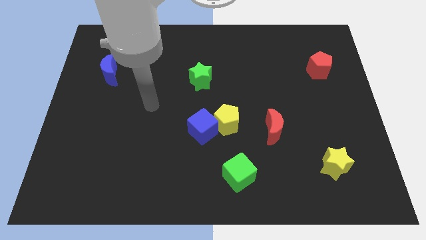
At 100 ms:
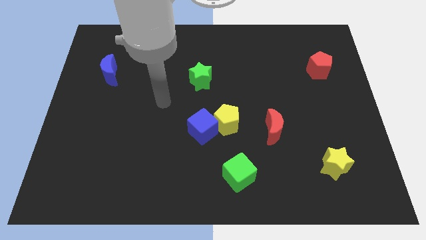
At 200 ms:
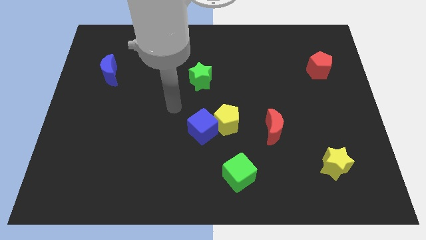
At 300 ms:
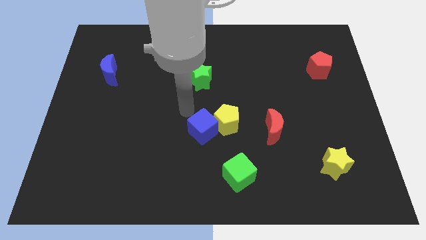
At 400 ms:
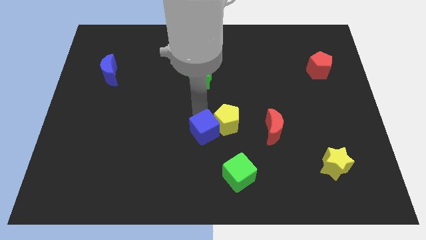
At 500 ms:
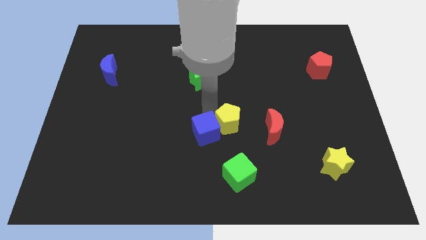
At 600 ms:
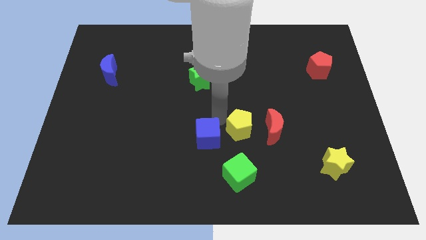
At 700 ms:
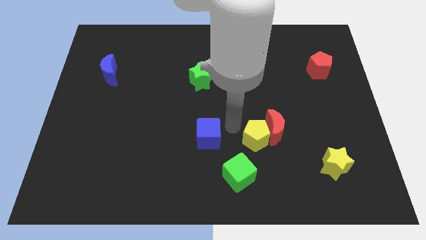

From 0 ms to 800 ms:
pull the blue cube apart from the yellow pentagon

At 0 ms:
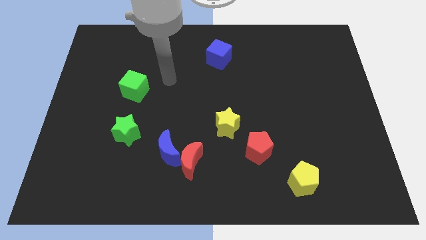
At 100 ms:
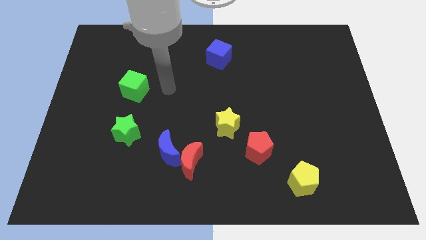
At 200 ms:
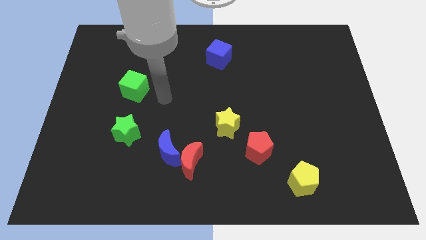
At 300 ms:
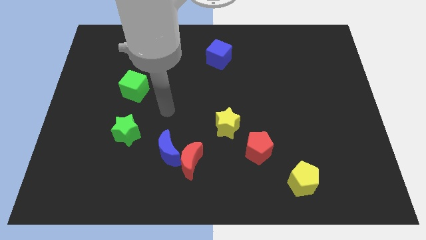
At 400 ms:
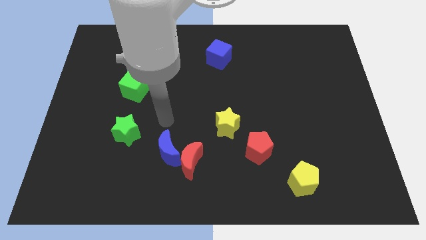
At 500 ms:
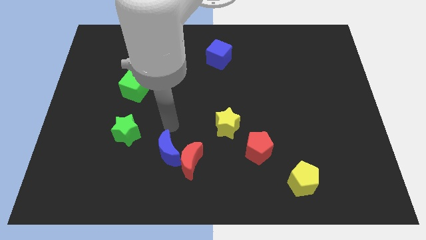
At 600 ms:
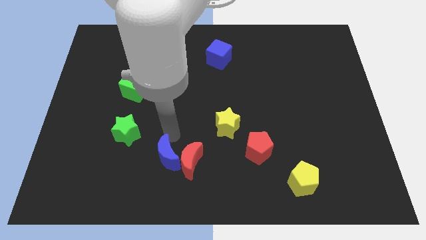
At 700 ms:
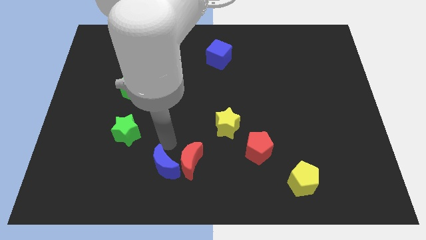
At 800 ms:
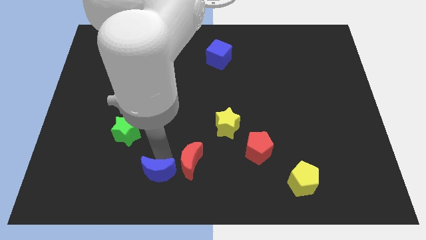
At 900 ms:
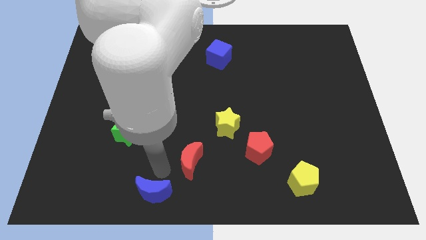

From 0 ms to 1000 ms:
pull the red moon apart from the blue moon

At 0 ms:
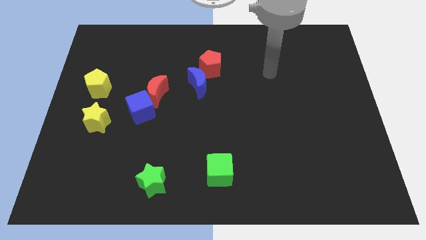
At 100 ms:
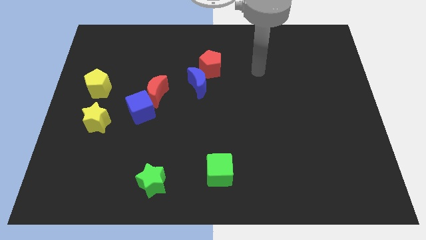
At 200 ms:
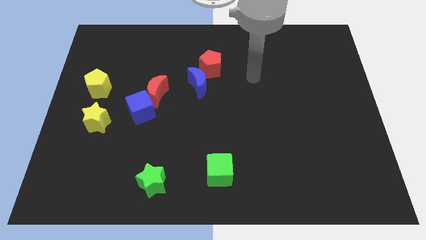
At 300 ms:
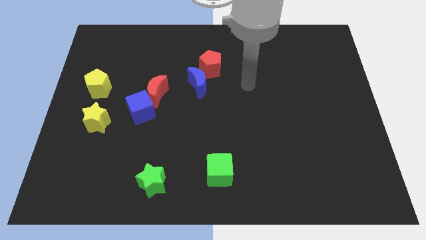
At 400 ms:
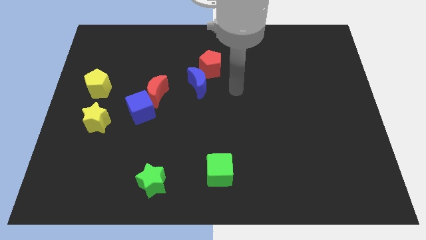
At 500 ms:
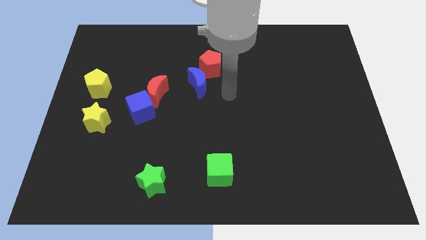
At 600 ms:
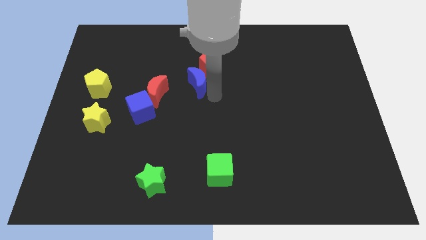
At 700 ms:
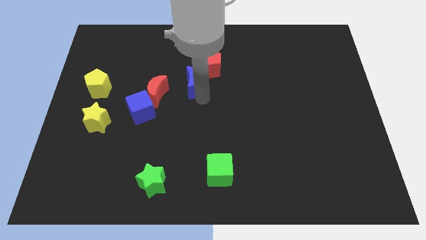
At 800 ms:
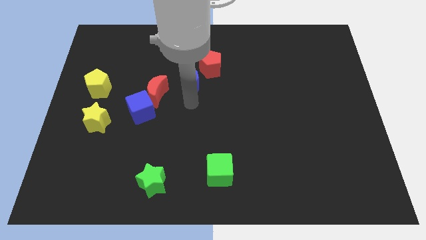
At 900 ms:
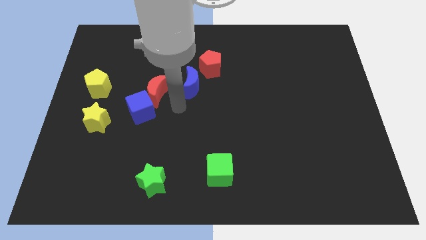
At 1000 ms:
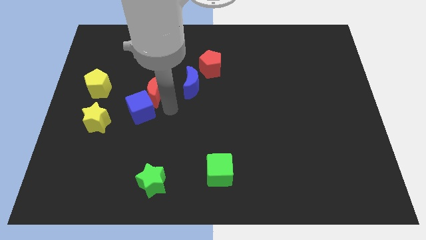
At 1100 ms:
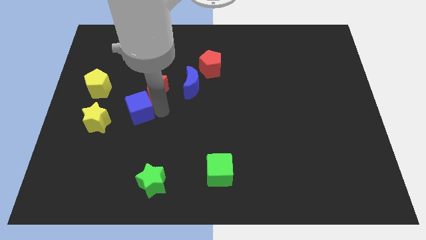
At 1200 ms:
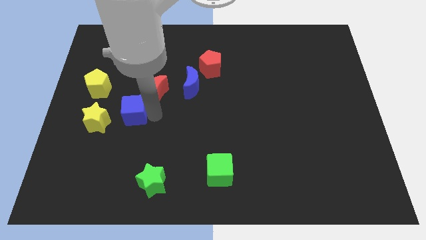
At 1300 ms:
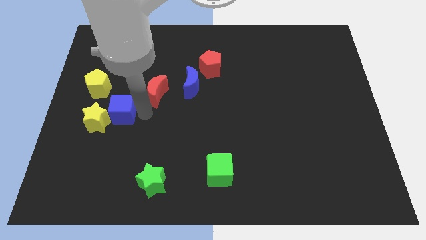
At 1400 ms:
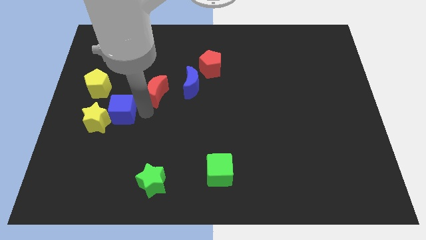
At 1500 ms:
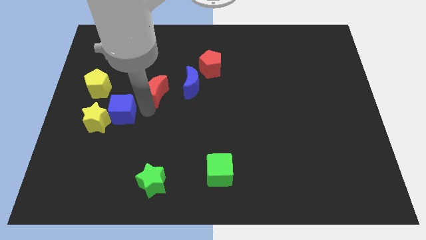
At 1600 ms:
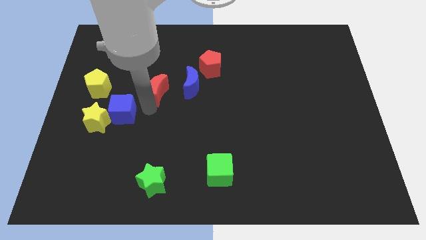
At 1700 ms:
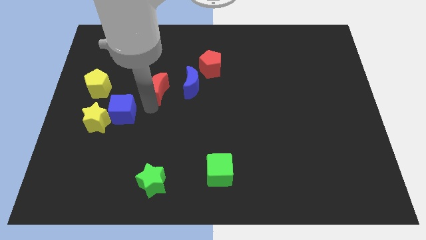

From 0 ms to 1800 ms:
separate the red moon from the blue cube

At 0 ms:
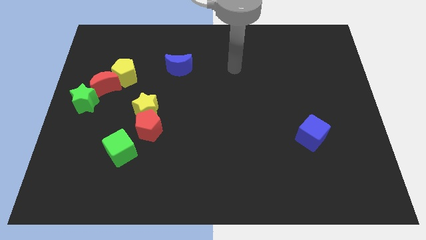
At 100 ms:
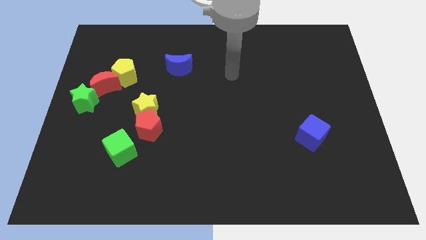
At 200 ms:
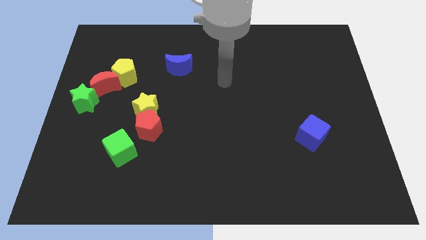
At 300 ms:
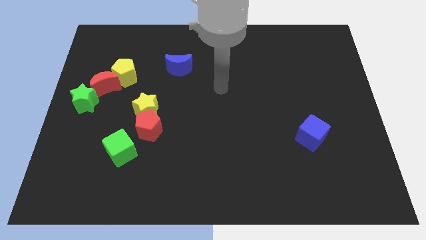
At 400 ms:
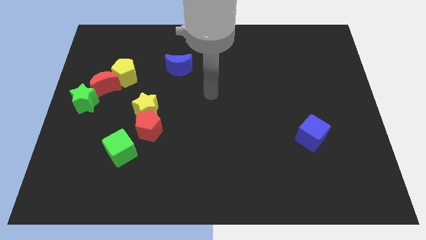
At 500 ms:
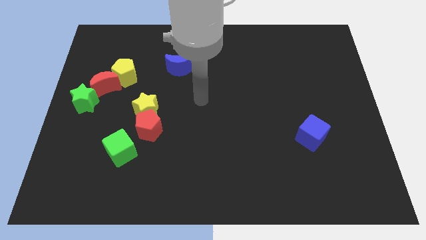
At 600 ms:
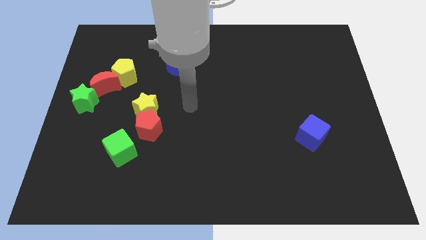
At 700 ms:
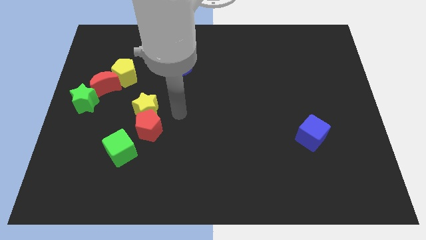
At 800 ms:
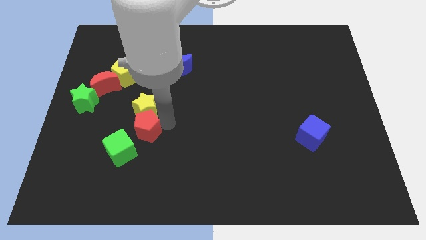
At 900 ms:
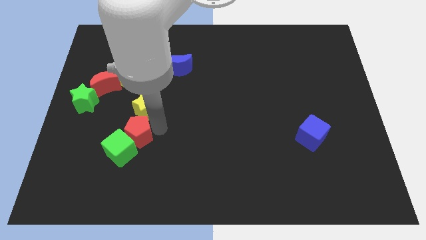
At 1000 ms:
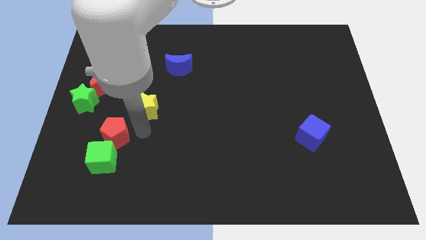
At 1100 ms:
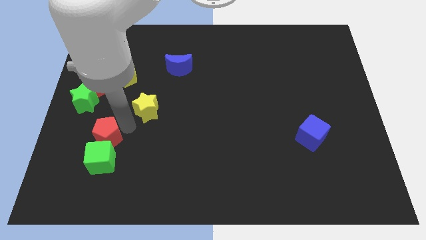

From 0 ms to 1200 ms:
move the yellow star away from the red pentagon

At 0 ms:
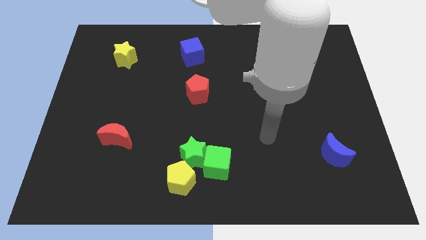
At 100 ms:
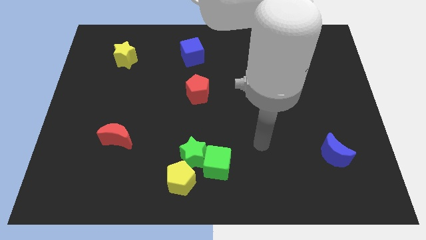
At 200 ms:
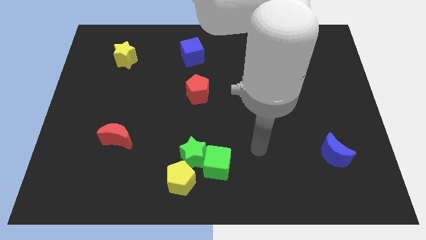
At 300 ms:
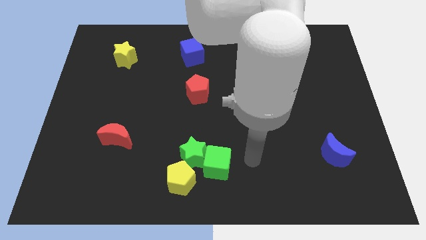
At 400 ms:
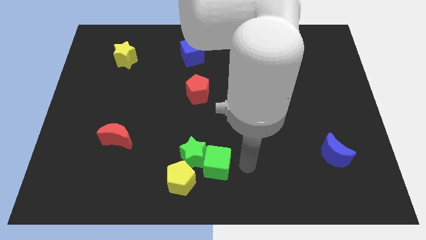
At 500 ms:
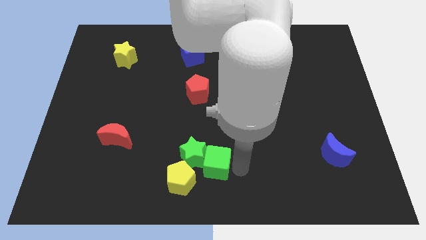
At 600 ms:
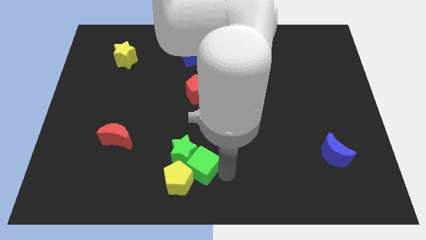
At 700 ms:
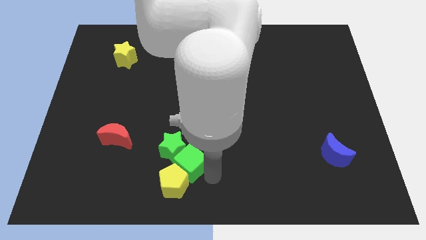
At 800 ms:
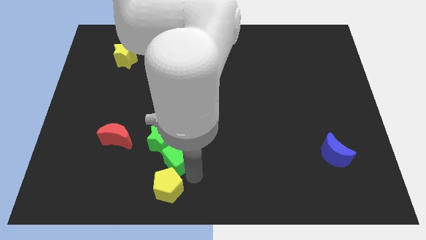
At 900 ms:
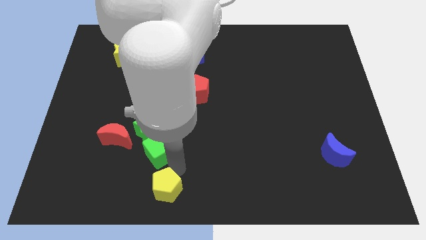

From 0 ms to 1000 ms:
separate the green star from the green cube and yellow pentagon

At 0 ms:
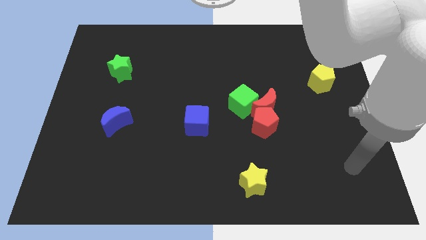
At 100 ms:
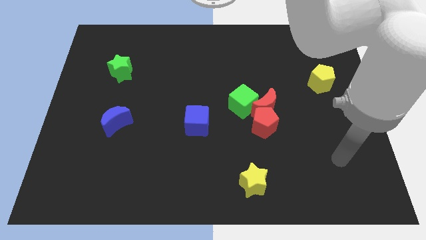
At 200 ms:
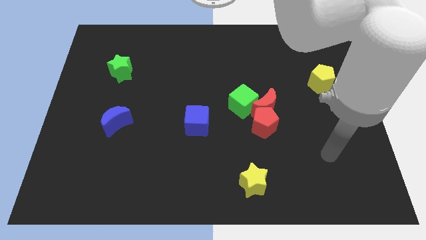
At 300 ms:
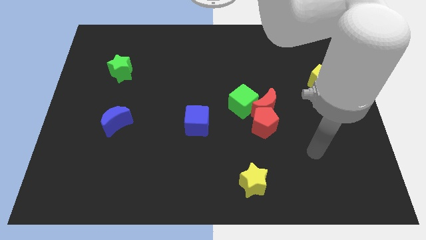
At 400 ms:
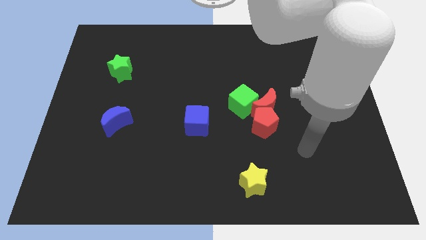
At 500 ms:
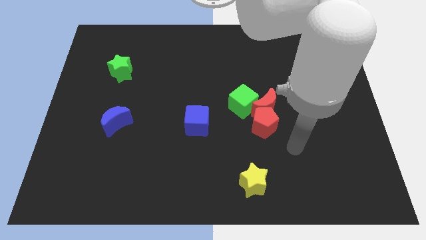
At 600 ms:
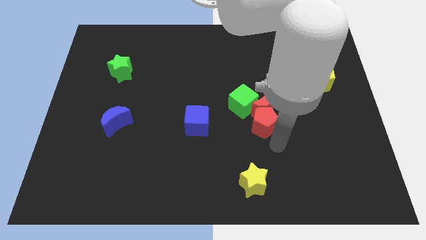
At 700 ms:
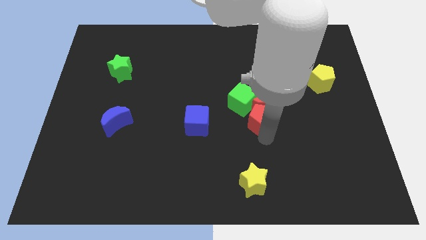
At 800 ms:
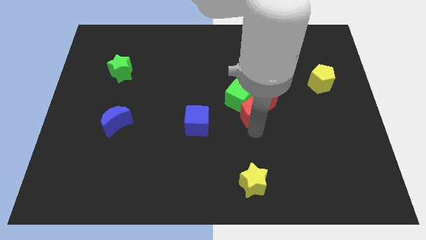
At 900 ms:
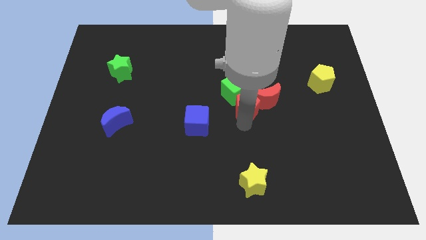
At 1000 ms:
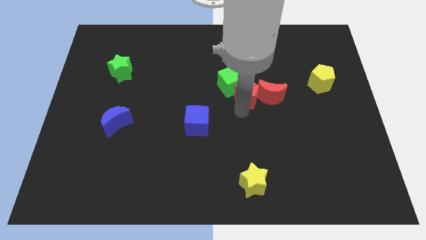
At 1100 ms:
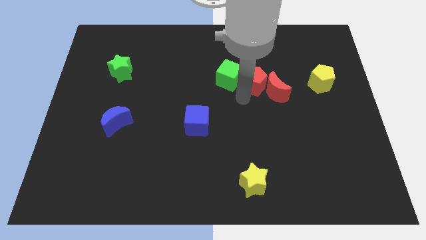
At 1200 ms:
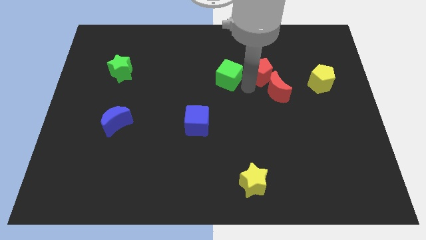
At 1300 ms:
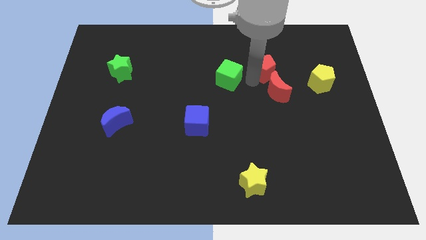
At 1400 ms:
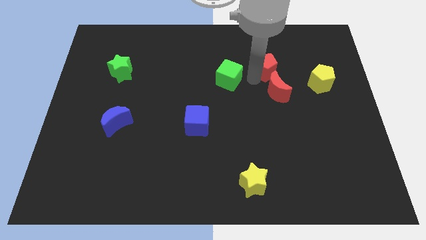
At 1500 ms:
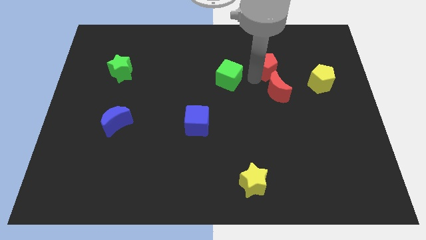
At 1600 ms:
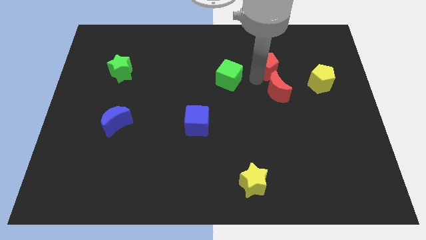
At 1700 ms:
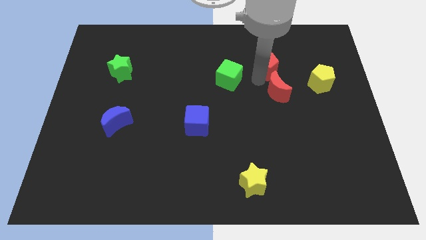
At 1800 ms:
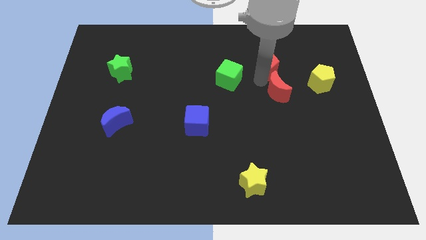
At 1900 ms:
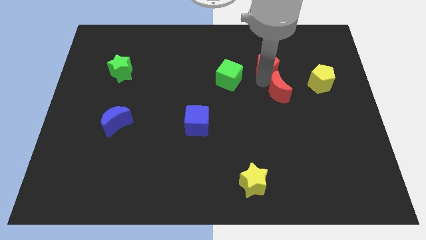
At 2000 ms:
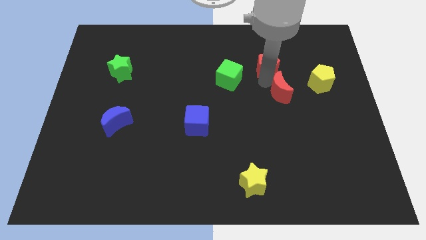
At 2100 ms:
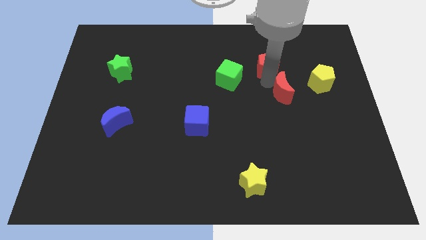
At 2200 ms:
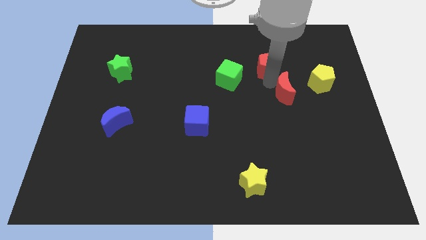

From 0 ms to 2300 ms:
pull the red moon apart from the red pentagon and green cube

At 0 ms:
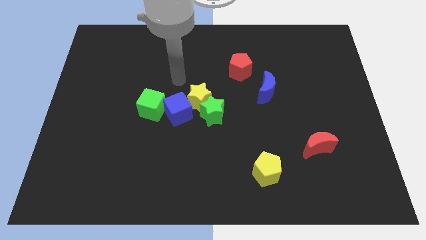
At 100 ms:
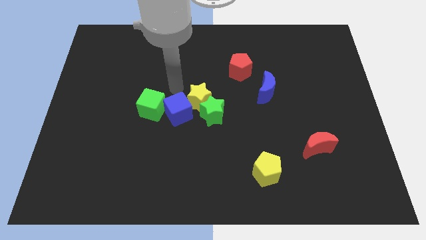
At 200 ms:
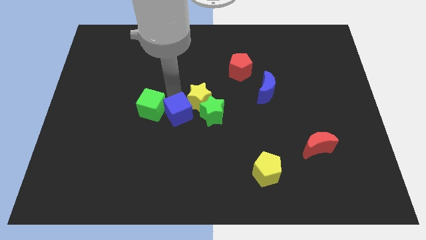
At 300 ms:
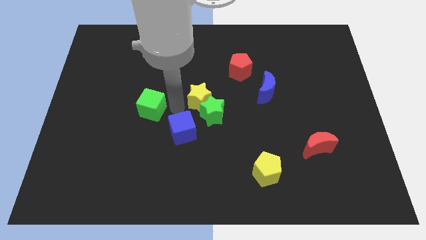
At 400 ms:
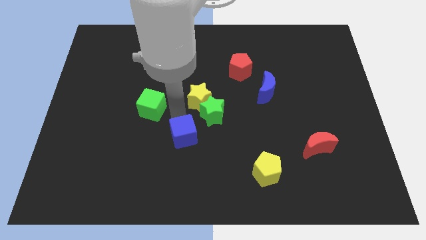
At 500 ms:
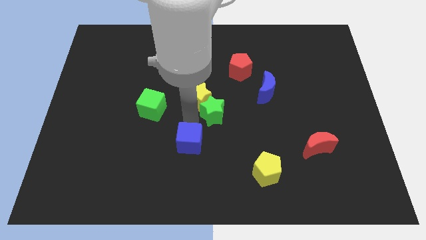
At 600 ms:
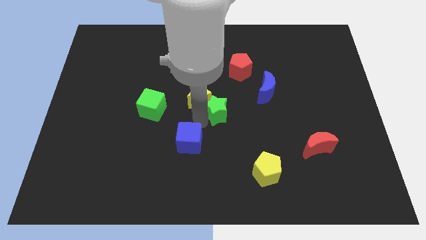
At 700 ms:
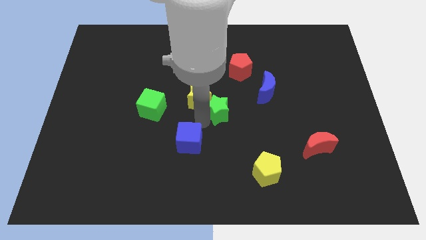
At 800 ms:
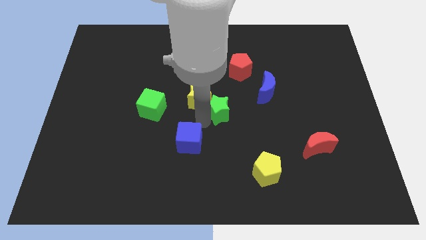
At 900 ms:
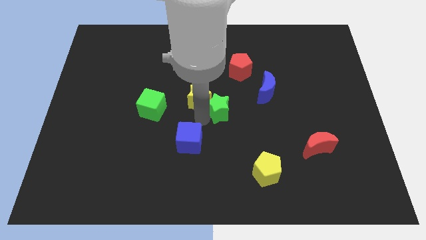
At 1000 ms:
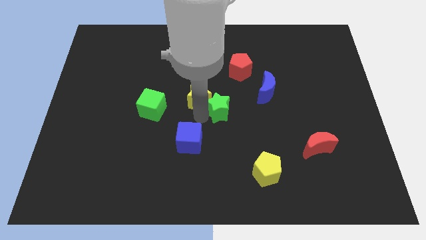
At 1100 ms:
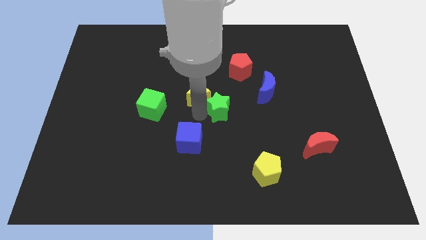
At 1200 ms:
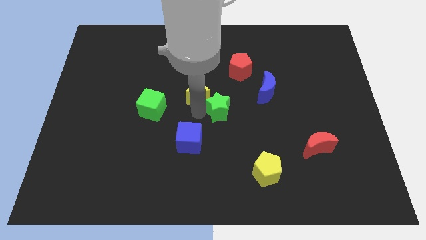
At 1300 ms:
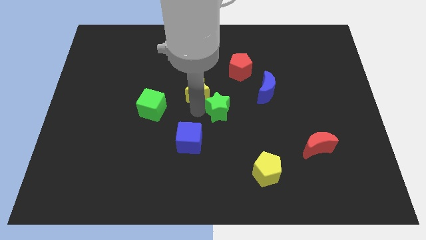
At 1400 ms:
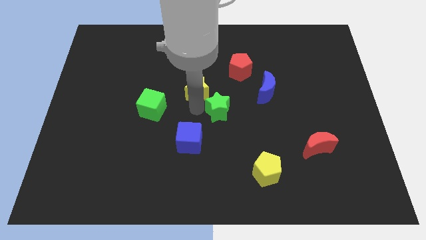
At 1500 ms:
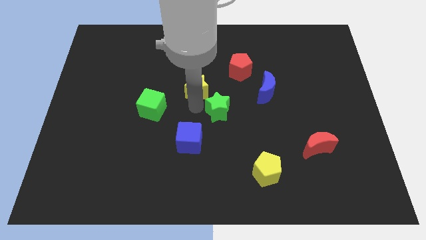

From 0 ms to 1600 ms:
pull the yellow star apart from the green star and blue cube
